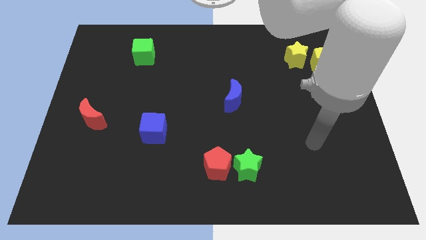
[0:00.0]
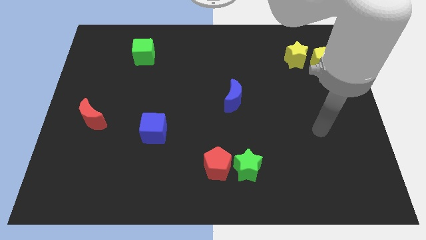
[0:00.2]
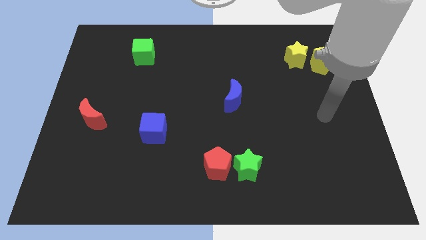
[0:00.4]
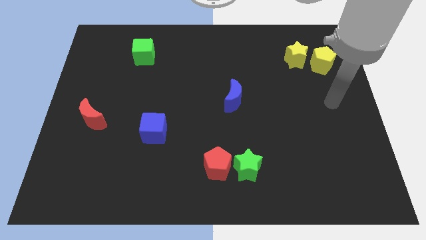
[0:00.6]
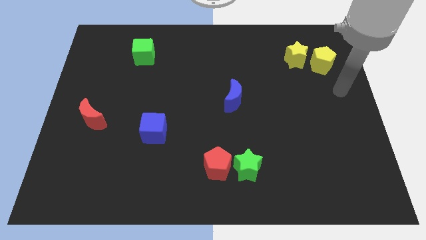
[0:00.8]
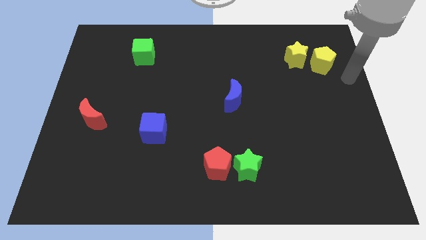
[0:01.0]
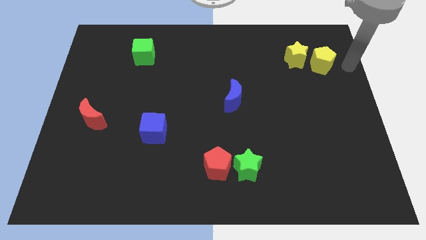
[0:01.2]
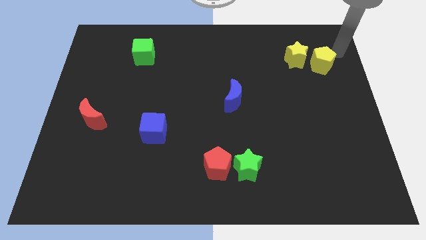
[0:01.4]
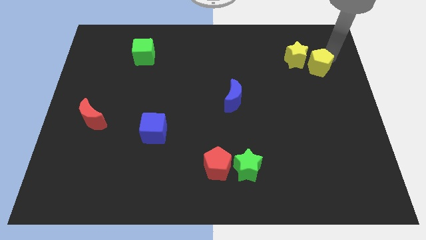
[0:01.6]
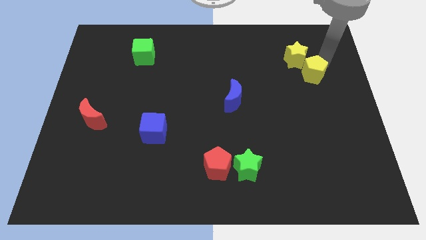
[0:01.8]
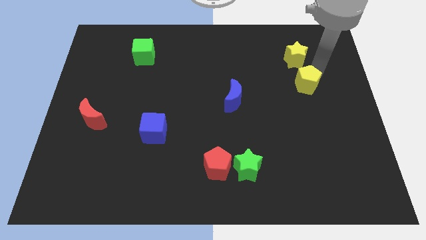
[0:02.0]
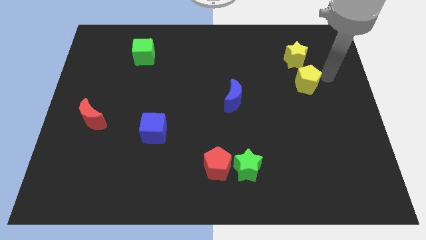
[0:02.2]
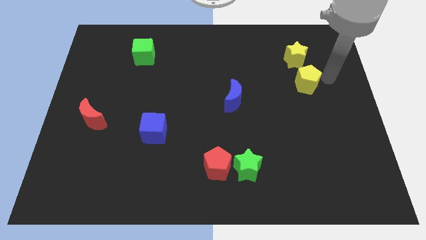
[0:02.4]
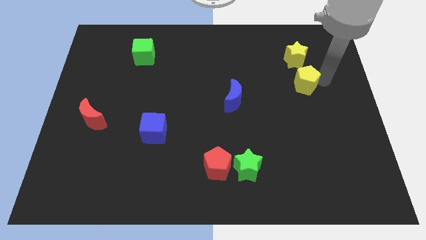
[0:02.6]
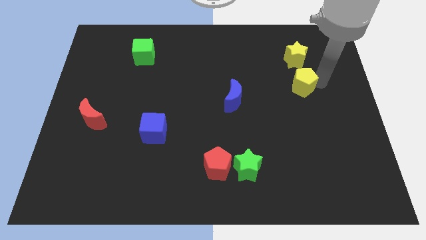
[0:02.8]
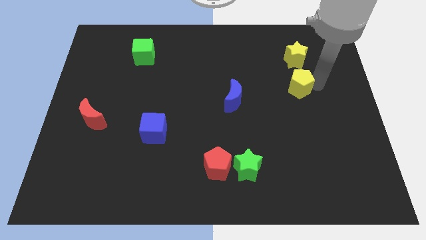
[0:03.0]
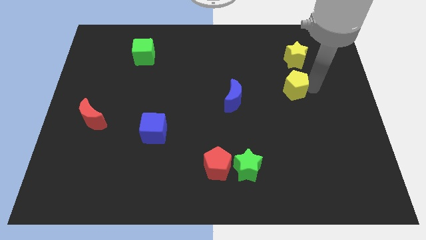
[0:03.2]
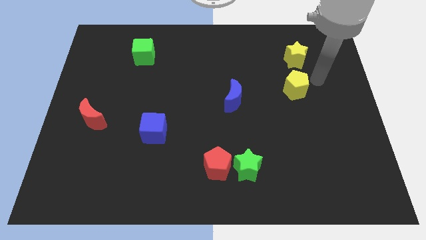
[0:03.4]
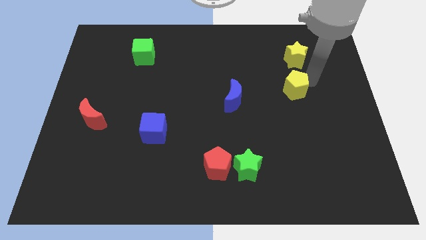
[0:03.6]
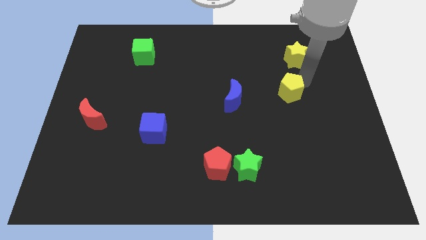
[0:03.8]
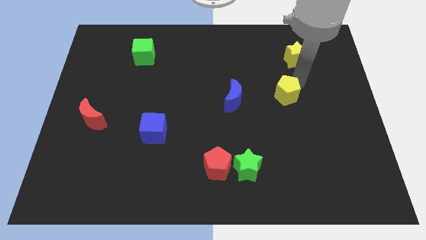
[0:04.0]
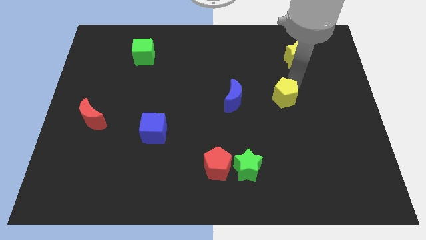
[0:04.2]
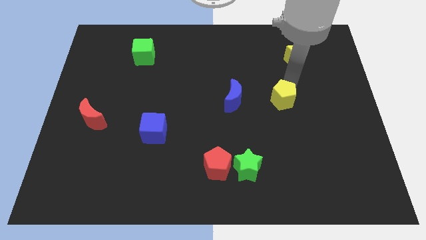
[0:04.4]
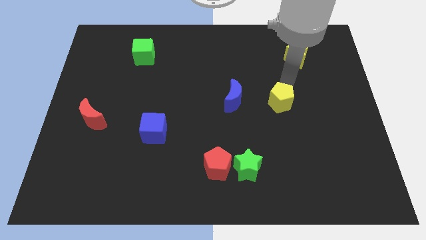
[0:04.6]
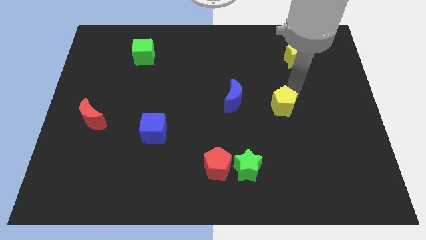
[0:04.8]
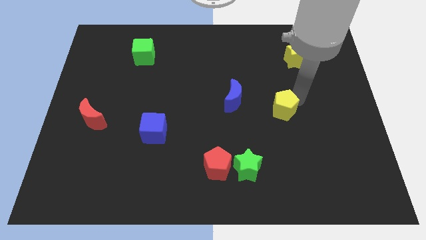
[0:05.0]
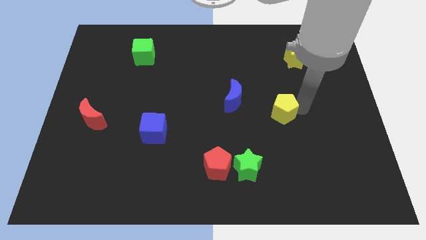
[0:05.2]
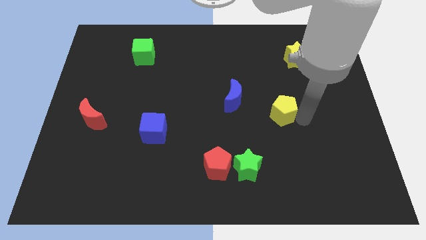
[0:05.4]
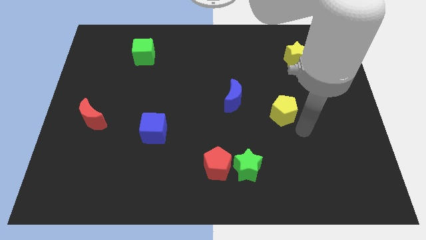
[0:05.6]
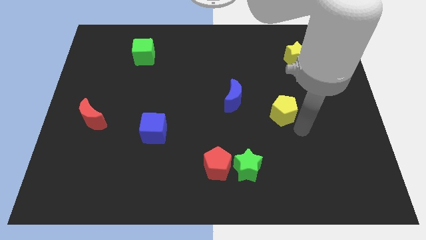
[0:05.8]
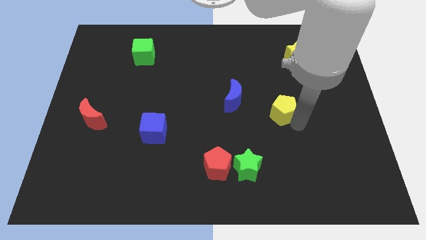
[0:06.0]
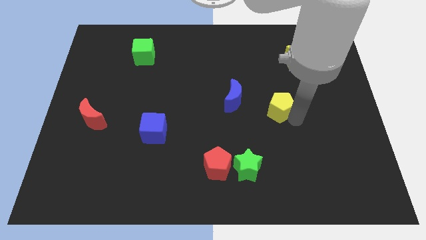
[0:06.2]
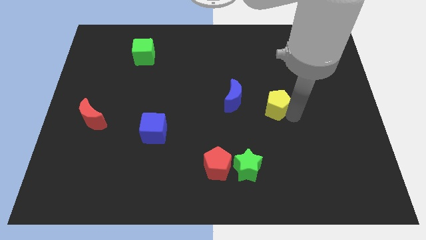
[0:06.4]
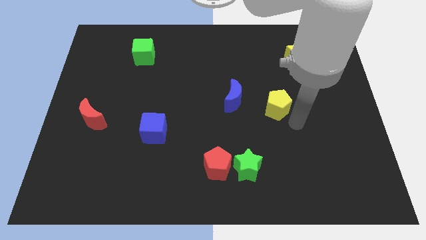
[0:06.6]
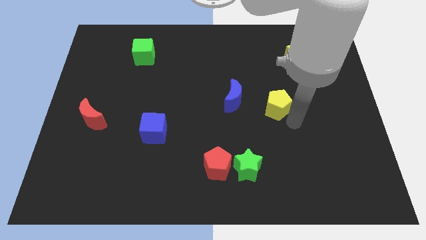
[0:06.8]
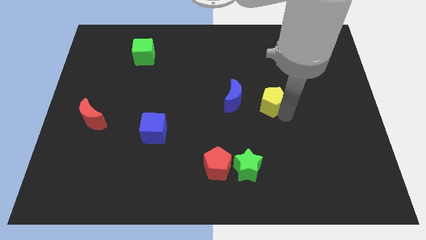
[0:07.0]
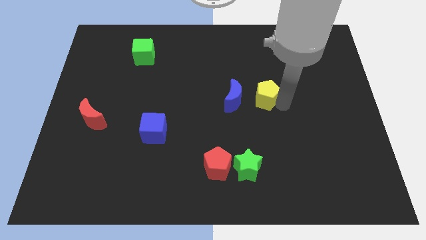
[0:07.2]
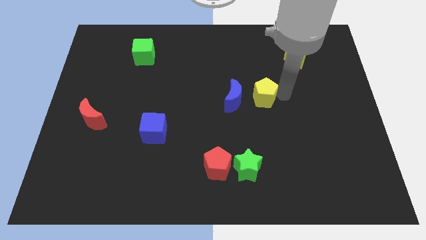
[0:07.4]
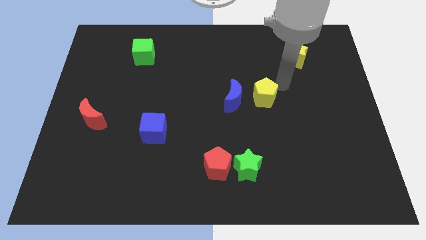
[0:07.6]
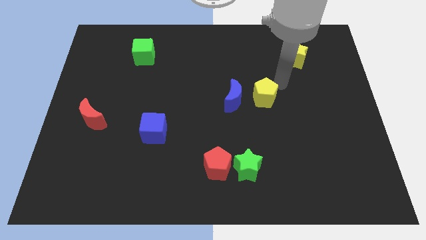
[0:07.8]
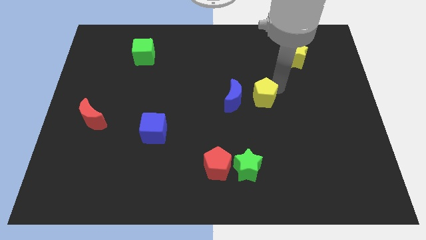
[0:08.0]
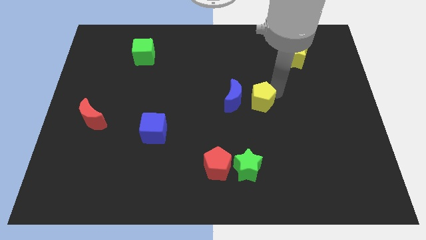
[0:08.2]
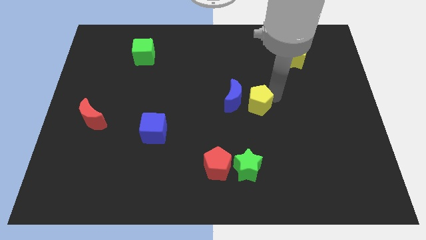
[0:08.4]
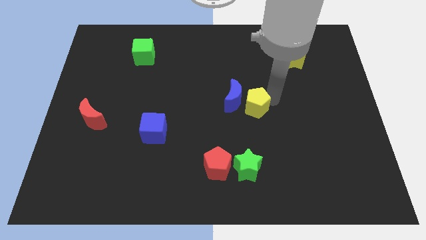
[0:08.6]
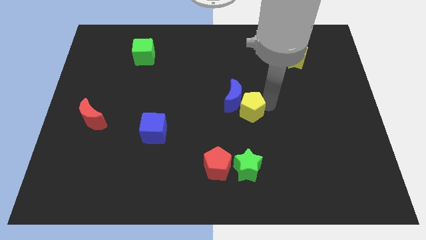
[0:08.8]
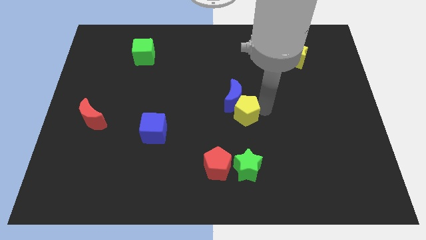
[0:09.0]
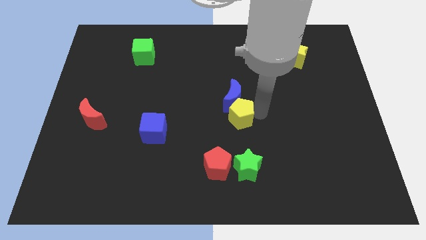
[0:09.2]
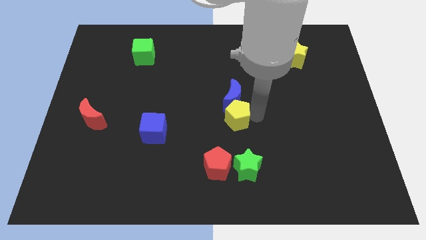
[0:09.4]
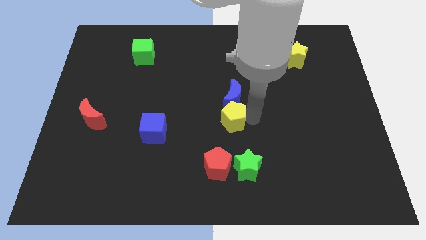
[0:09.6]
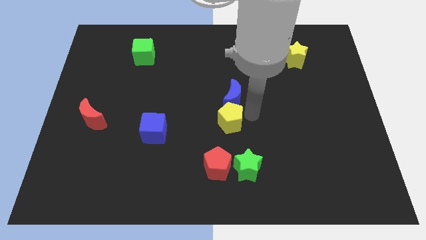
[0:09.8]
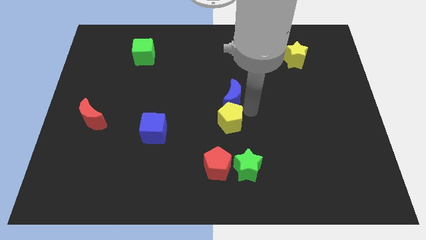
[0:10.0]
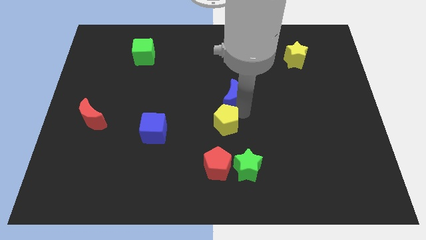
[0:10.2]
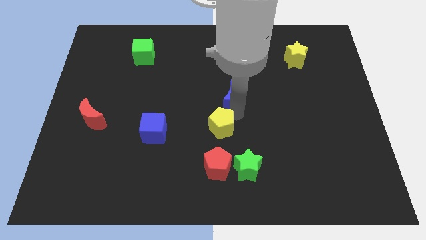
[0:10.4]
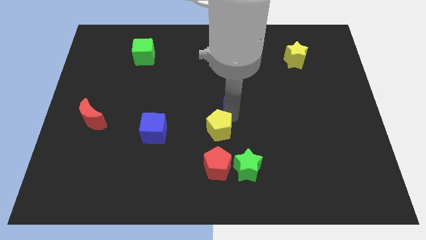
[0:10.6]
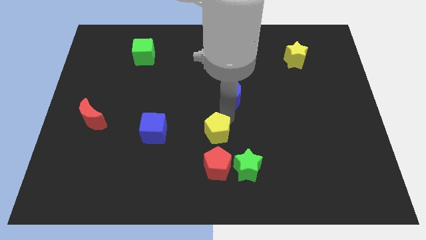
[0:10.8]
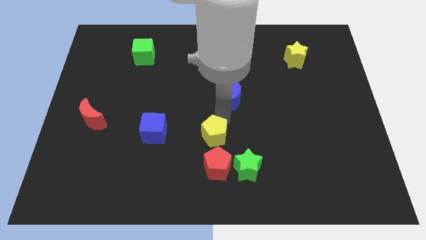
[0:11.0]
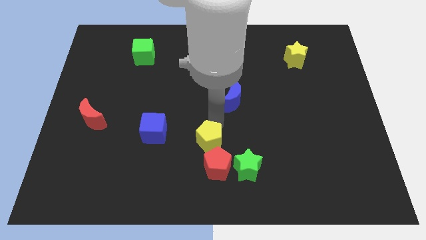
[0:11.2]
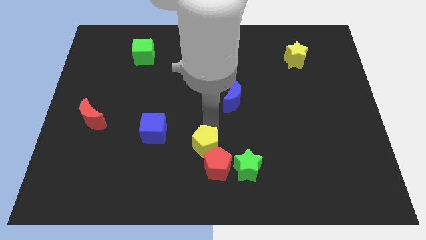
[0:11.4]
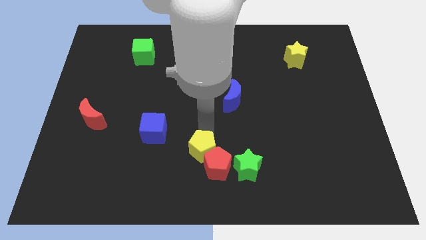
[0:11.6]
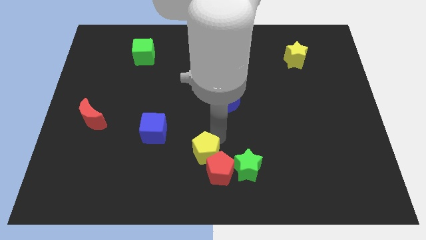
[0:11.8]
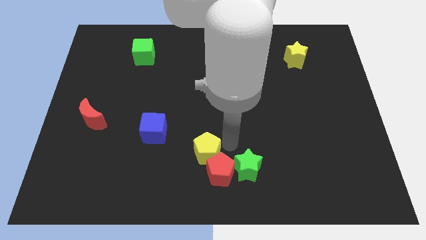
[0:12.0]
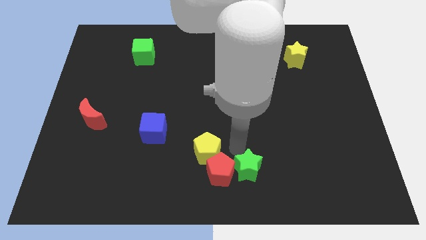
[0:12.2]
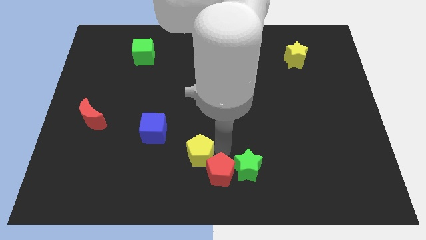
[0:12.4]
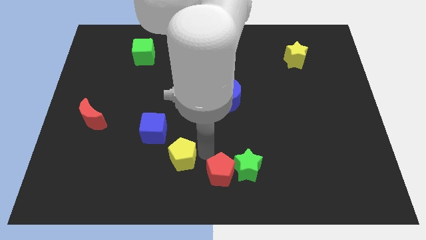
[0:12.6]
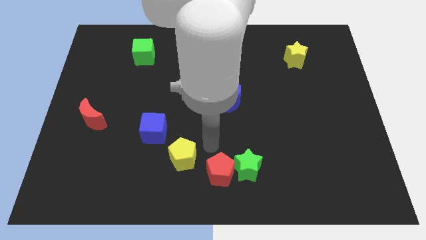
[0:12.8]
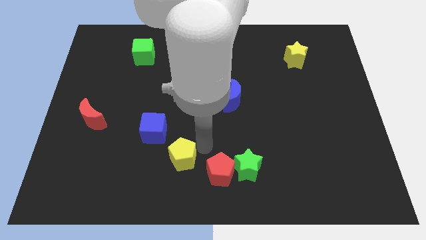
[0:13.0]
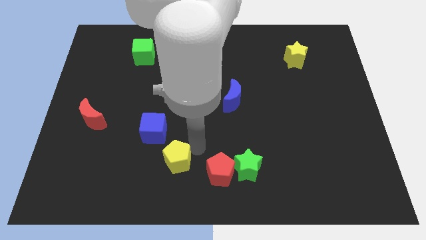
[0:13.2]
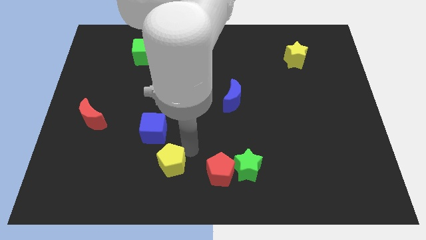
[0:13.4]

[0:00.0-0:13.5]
push the yellow pentagon below the blue cube

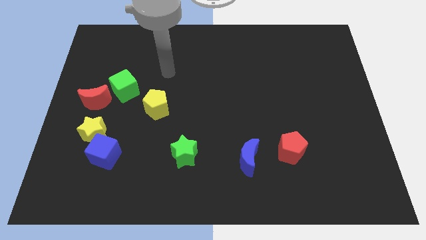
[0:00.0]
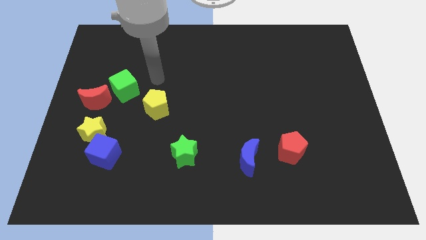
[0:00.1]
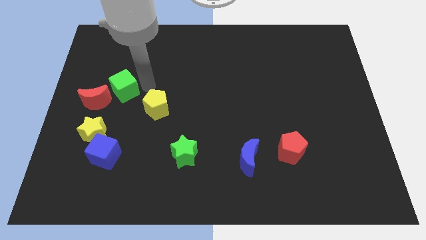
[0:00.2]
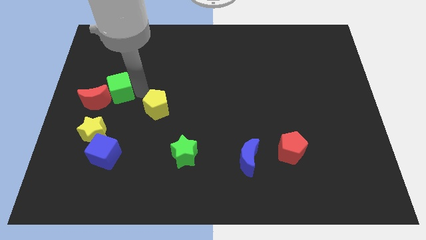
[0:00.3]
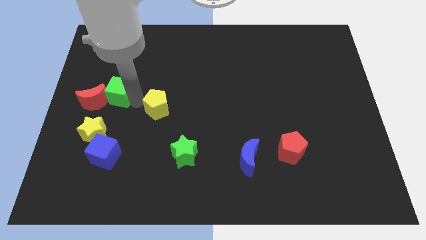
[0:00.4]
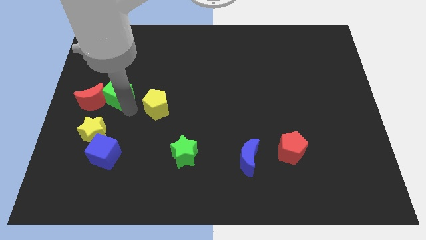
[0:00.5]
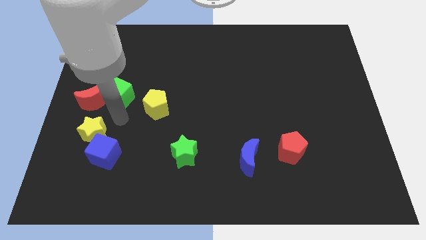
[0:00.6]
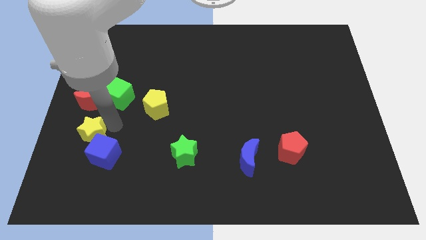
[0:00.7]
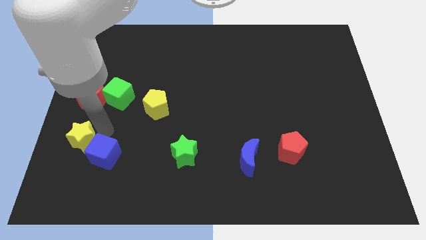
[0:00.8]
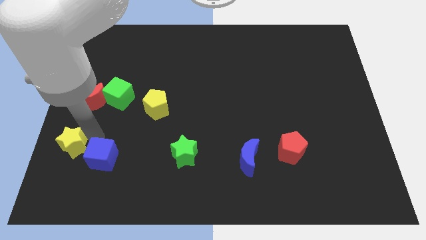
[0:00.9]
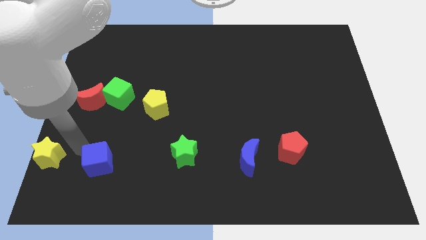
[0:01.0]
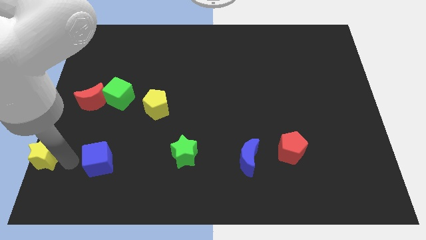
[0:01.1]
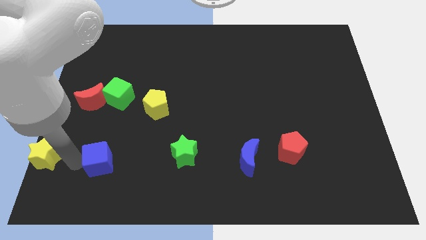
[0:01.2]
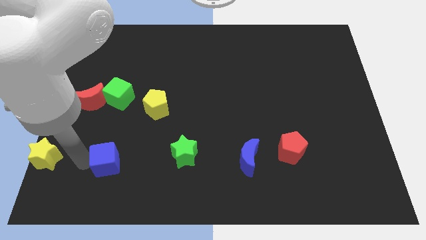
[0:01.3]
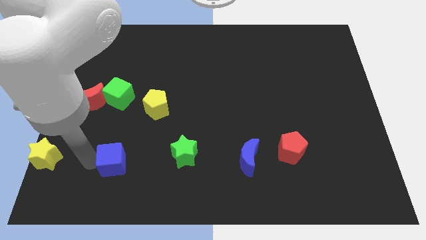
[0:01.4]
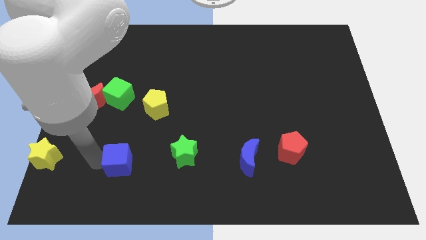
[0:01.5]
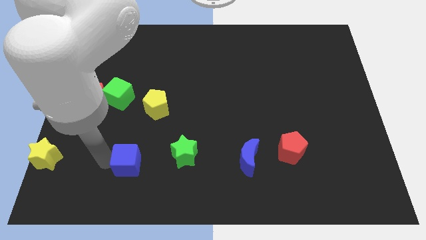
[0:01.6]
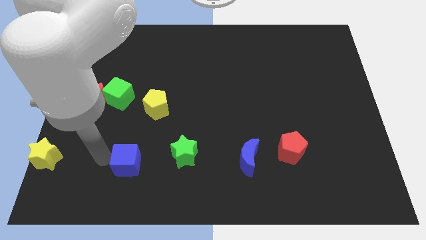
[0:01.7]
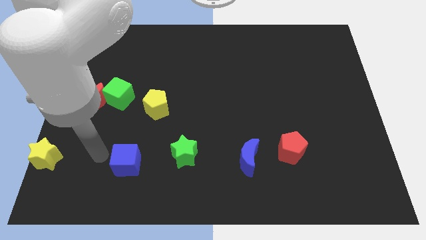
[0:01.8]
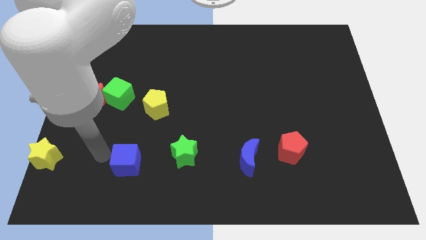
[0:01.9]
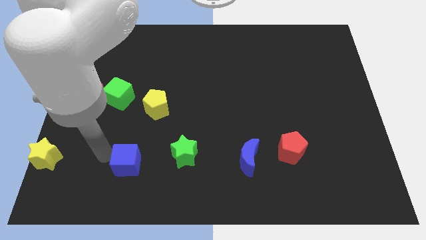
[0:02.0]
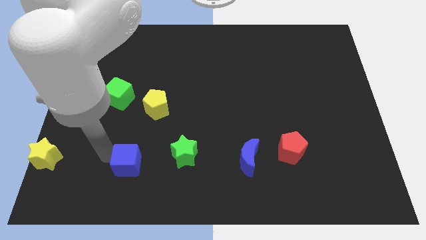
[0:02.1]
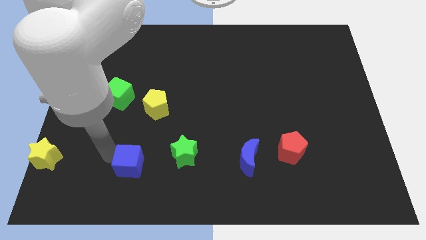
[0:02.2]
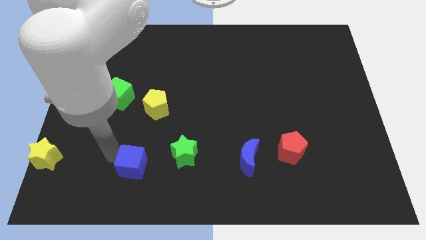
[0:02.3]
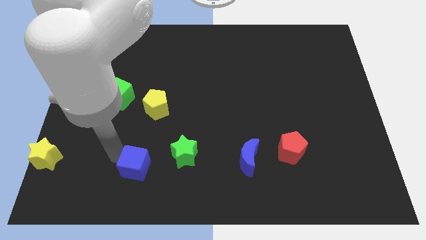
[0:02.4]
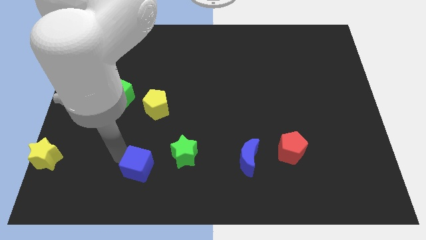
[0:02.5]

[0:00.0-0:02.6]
move the blue cube to the bottom left side of the green star
